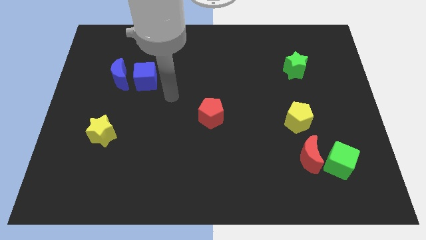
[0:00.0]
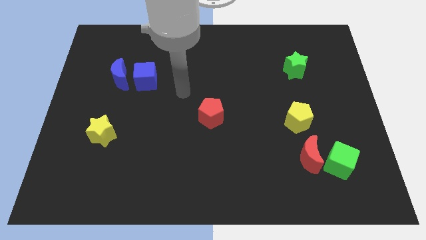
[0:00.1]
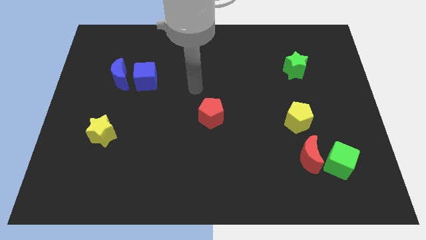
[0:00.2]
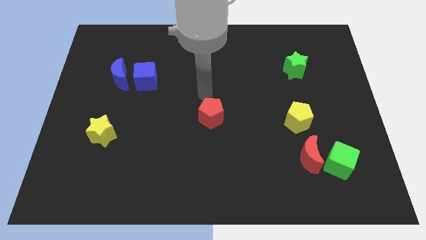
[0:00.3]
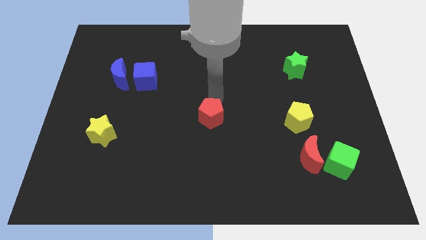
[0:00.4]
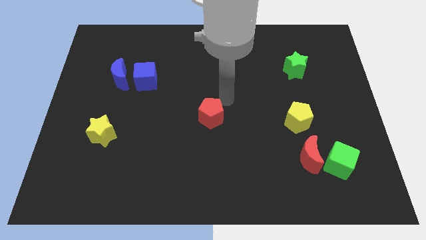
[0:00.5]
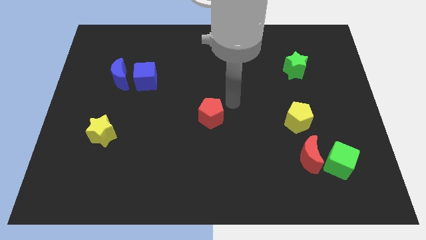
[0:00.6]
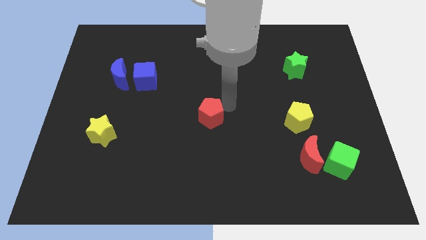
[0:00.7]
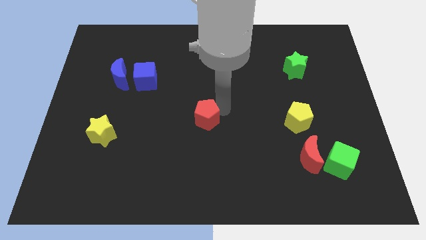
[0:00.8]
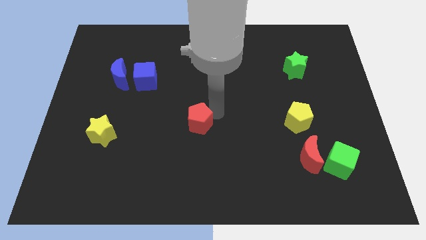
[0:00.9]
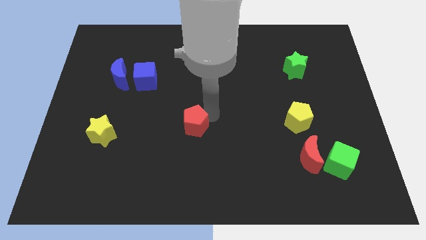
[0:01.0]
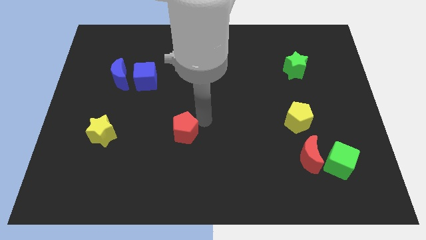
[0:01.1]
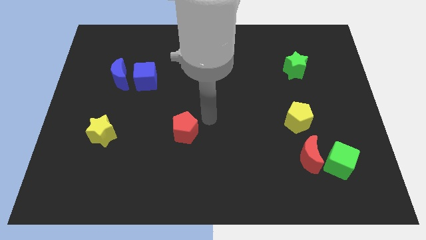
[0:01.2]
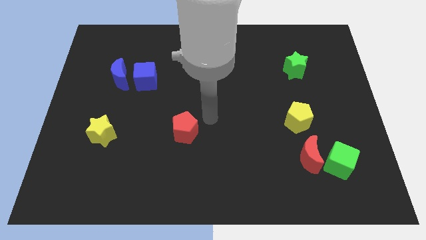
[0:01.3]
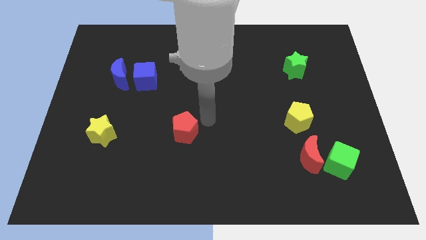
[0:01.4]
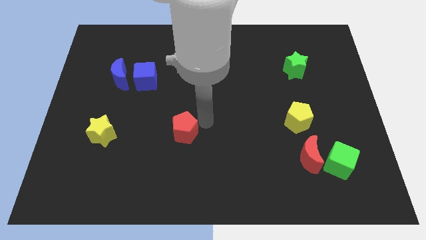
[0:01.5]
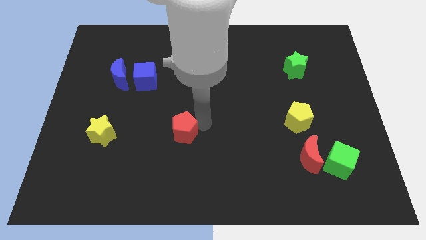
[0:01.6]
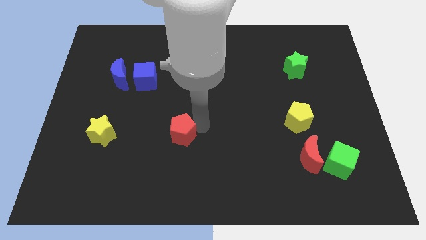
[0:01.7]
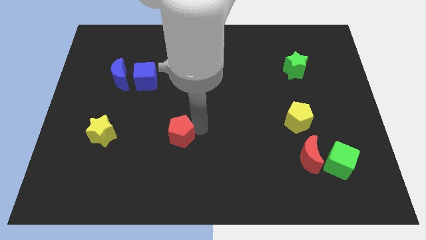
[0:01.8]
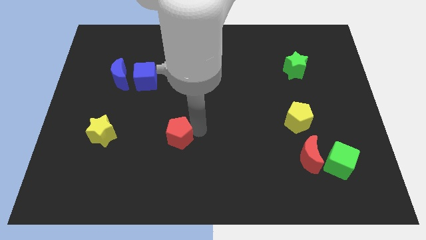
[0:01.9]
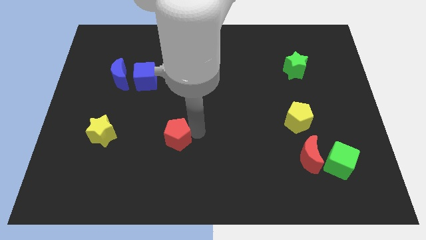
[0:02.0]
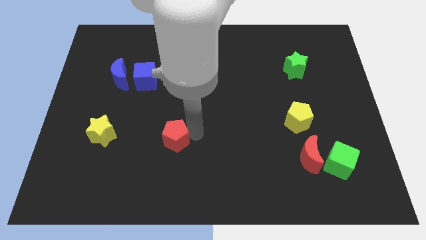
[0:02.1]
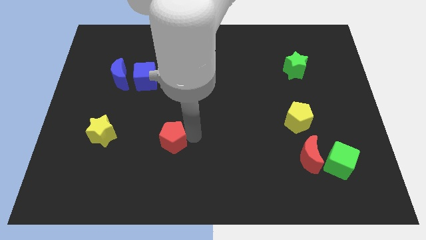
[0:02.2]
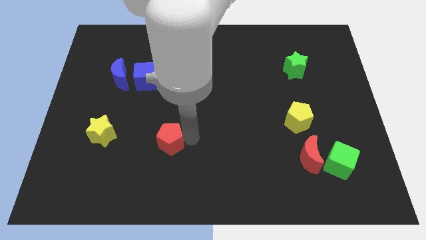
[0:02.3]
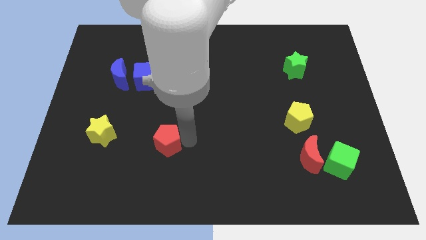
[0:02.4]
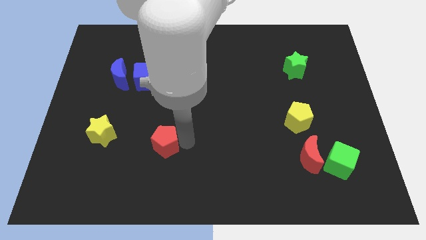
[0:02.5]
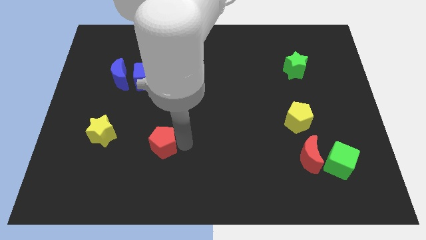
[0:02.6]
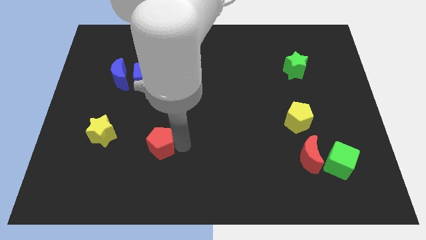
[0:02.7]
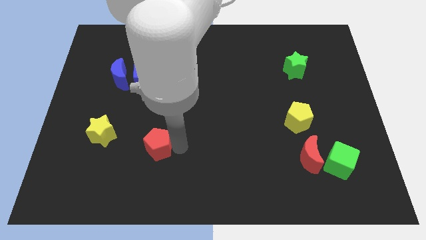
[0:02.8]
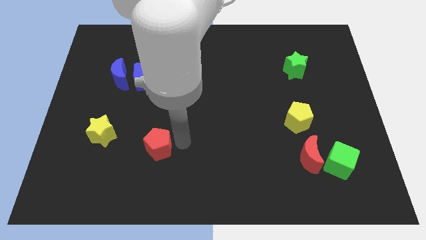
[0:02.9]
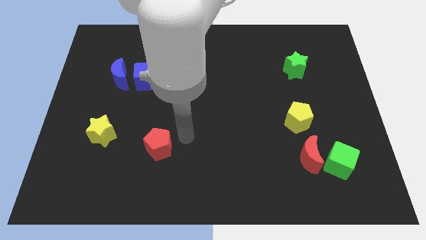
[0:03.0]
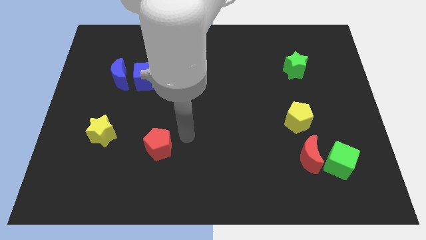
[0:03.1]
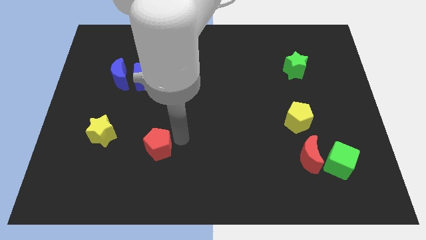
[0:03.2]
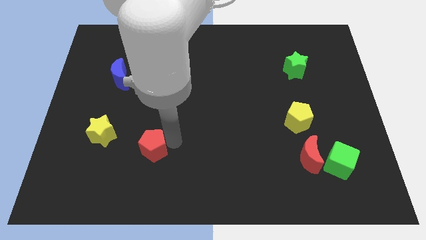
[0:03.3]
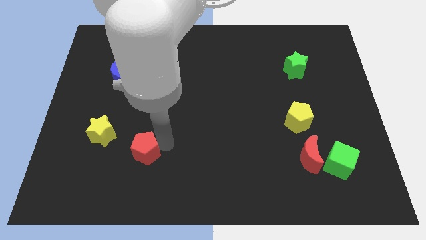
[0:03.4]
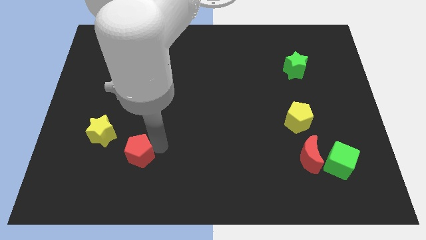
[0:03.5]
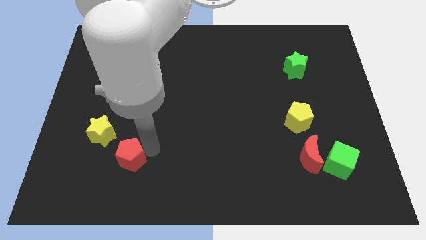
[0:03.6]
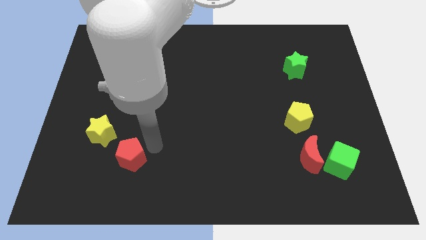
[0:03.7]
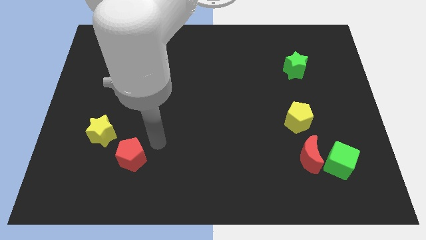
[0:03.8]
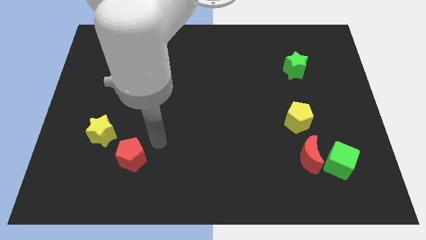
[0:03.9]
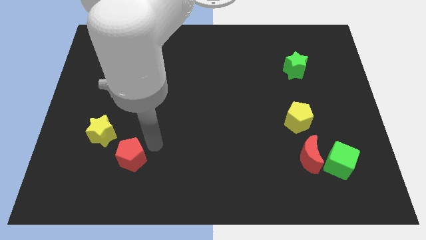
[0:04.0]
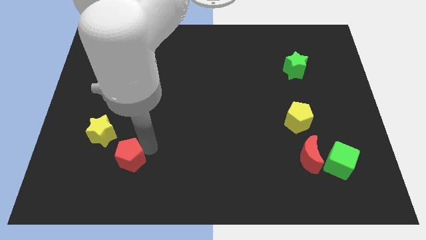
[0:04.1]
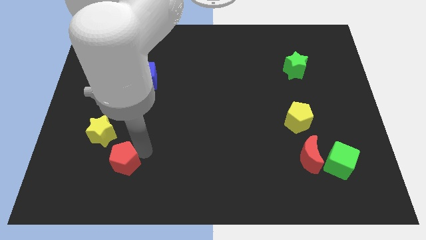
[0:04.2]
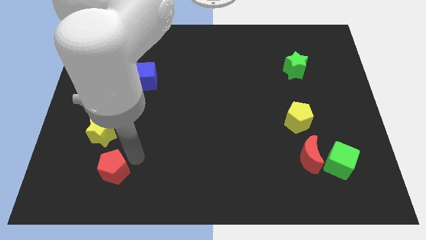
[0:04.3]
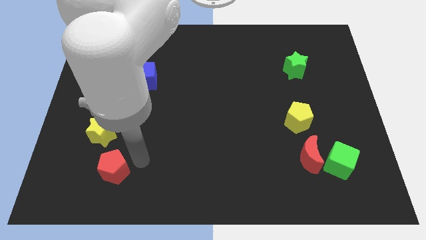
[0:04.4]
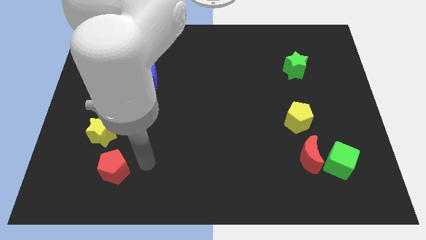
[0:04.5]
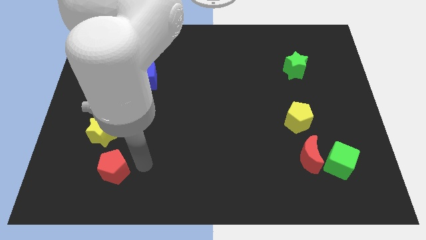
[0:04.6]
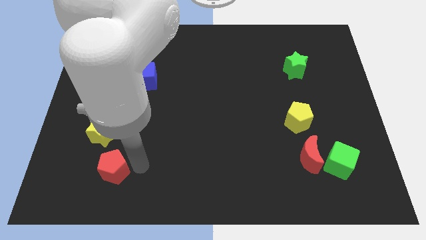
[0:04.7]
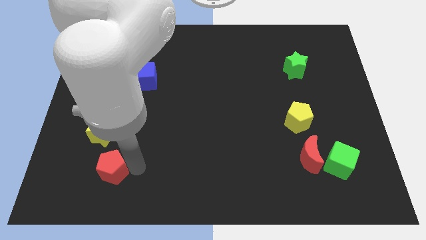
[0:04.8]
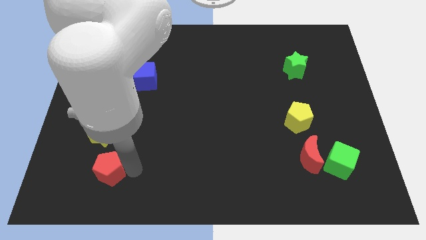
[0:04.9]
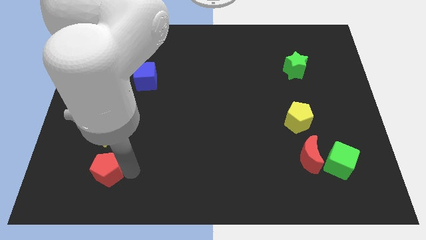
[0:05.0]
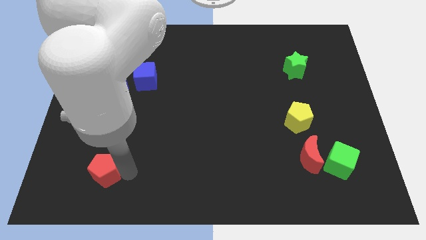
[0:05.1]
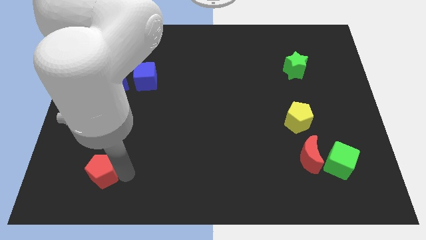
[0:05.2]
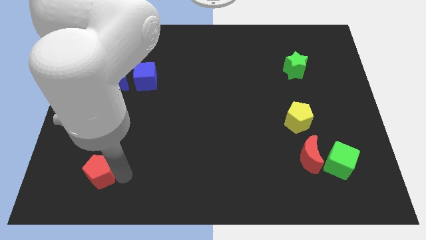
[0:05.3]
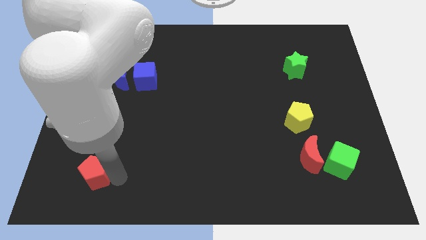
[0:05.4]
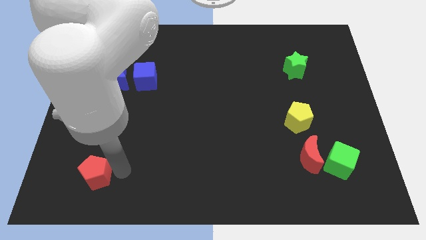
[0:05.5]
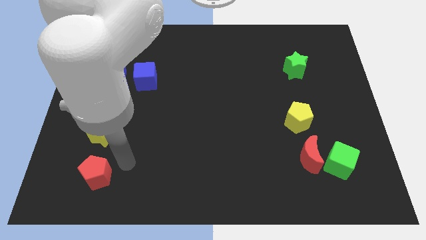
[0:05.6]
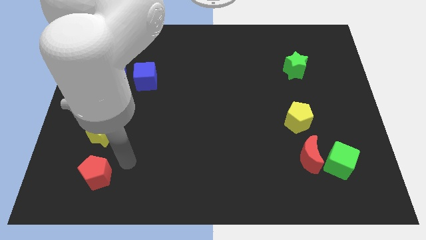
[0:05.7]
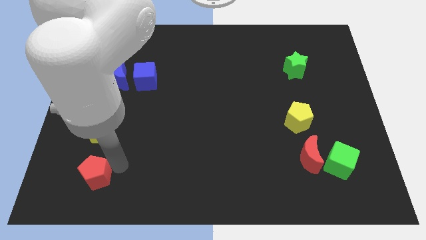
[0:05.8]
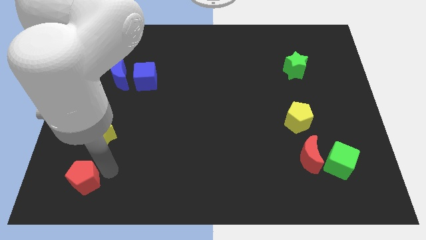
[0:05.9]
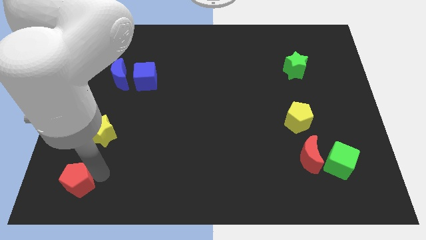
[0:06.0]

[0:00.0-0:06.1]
move the red pentagon to the lower left corner

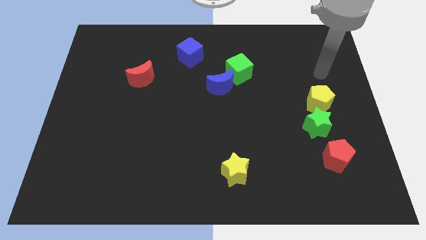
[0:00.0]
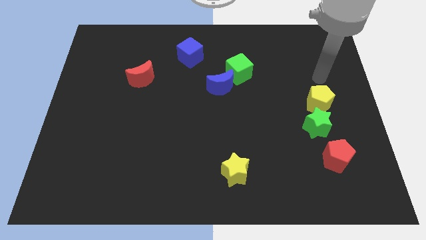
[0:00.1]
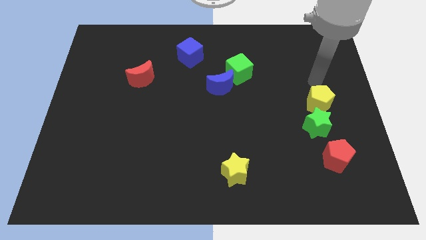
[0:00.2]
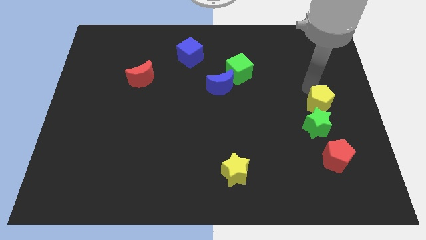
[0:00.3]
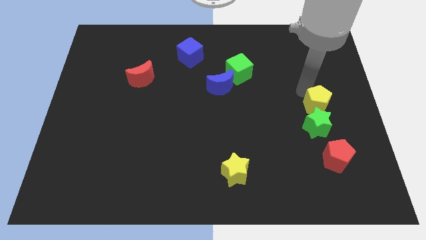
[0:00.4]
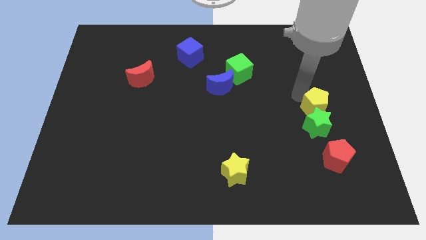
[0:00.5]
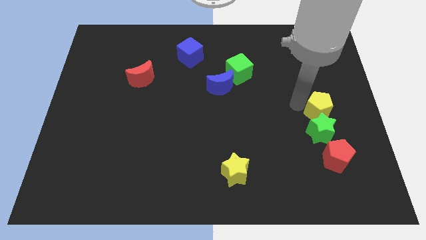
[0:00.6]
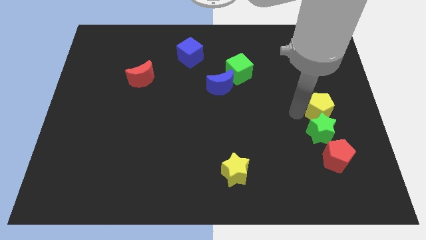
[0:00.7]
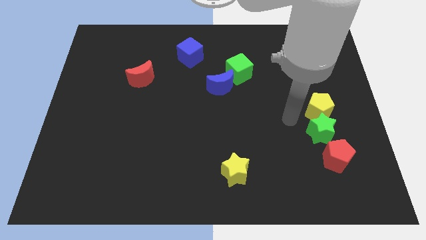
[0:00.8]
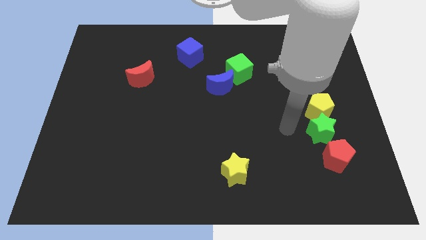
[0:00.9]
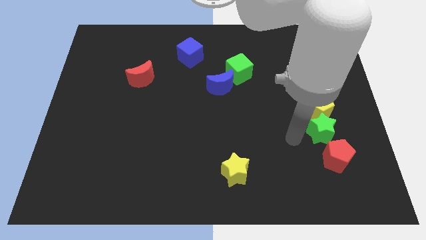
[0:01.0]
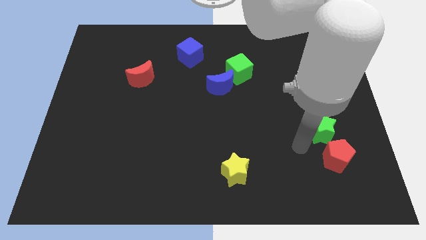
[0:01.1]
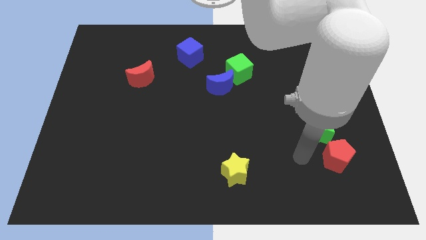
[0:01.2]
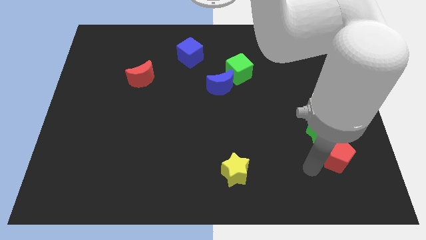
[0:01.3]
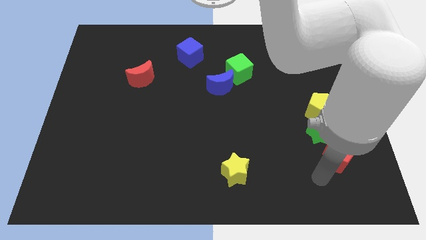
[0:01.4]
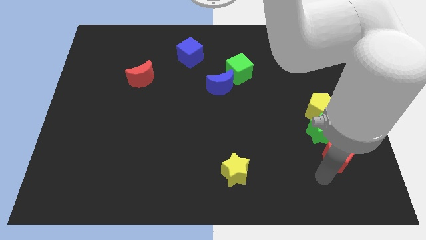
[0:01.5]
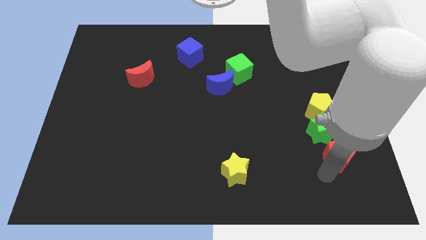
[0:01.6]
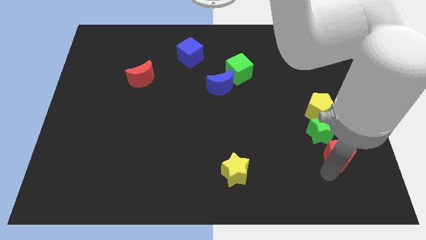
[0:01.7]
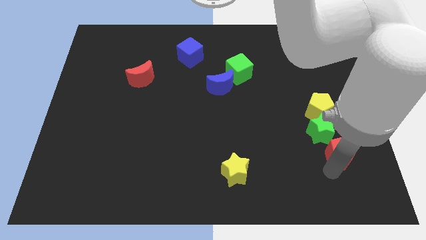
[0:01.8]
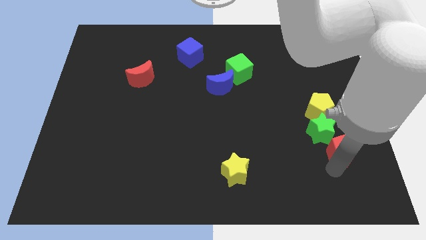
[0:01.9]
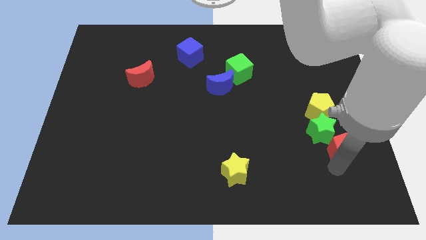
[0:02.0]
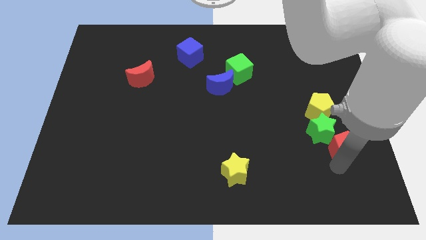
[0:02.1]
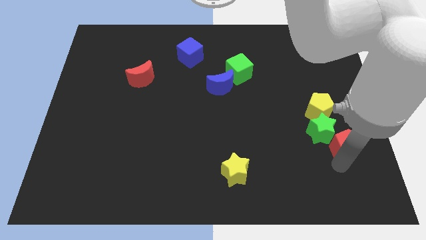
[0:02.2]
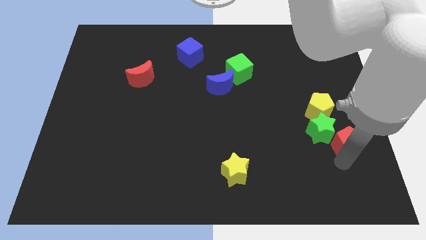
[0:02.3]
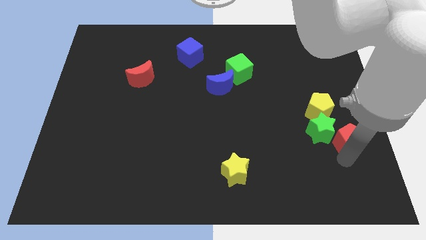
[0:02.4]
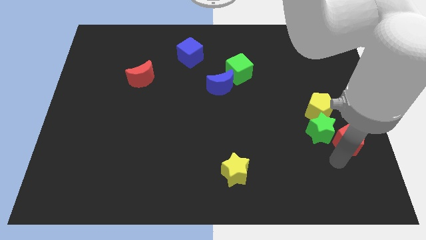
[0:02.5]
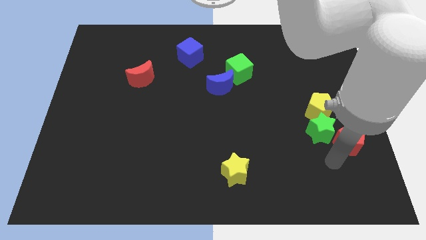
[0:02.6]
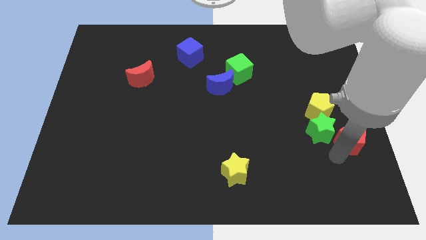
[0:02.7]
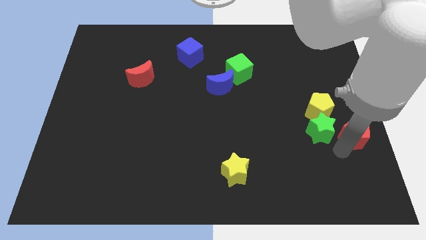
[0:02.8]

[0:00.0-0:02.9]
put the red pentagon to the right side
